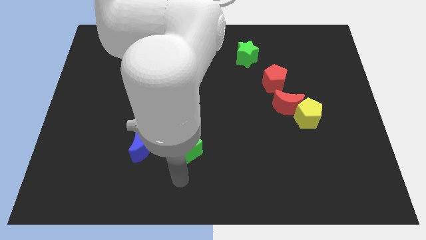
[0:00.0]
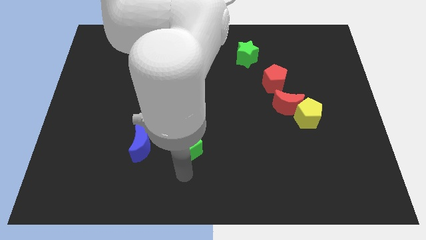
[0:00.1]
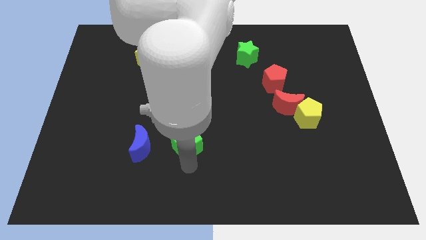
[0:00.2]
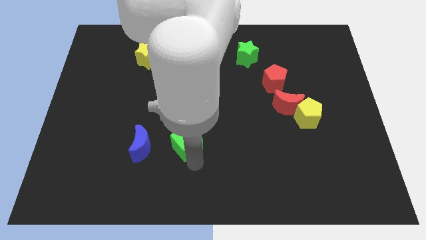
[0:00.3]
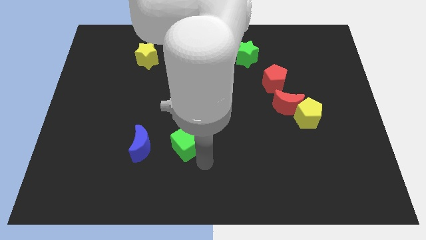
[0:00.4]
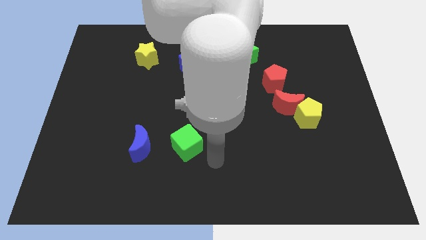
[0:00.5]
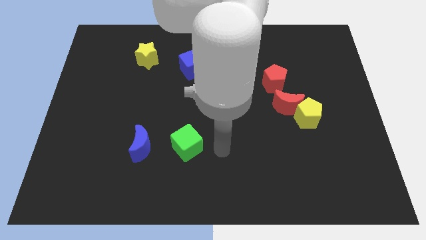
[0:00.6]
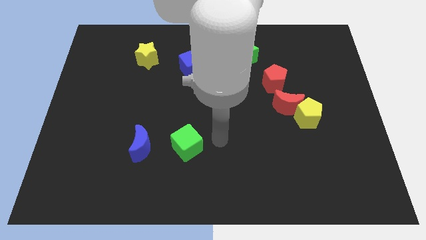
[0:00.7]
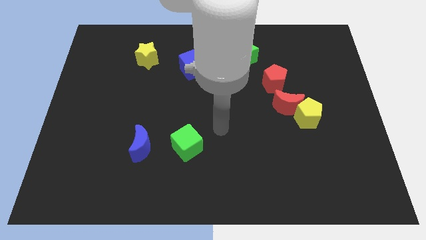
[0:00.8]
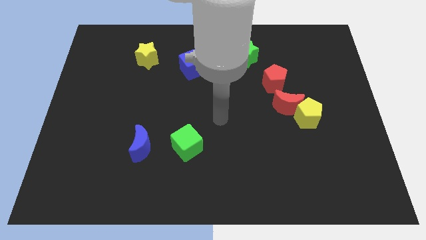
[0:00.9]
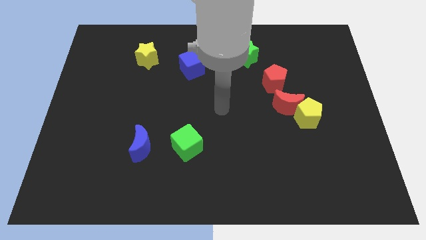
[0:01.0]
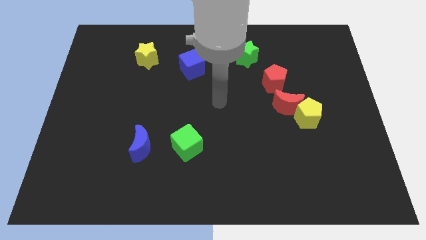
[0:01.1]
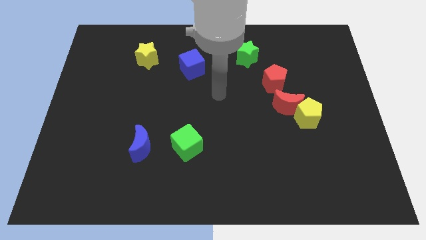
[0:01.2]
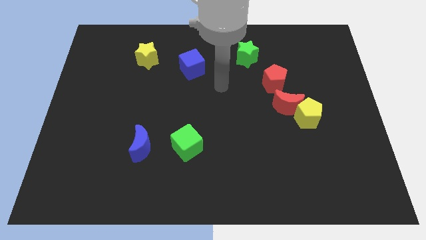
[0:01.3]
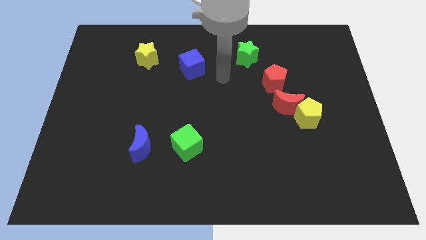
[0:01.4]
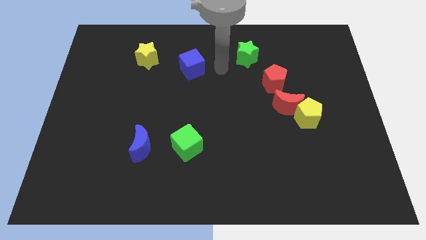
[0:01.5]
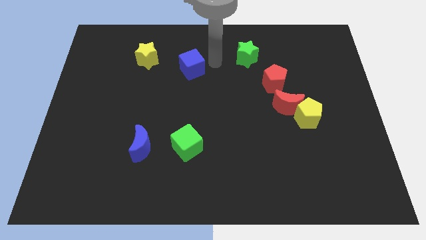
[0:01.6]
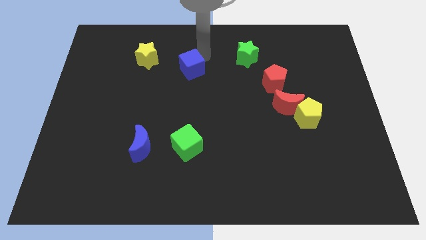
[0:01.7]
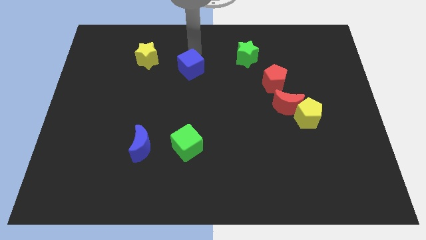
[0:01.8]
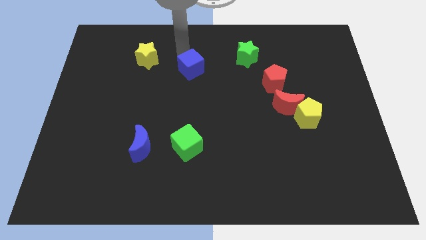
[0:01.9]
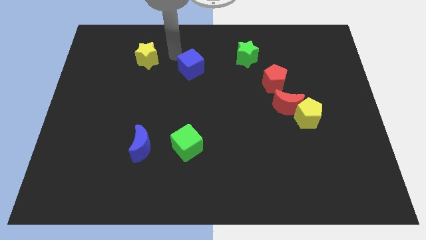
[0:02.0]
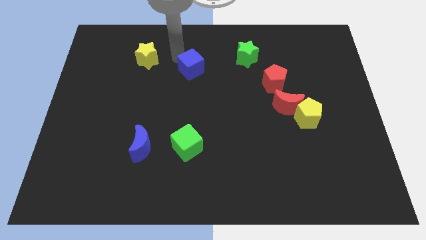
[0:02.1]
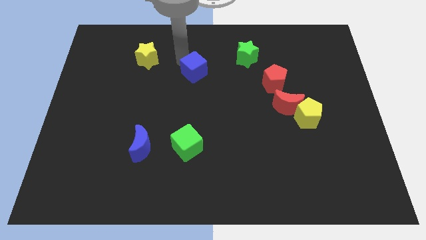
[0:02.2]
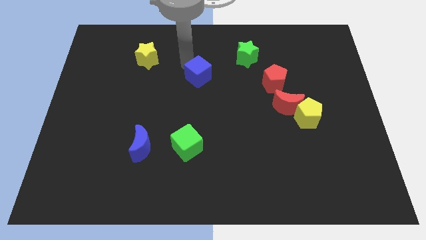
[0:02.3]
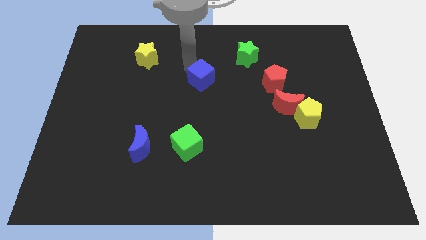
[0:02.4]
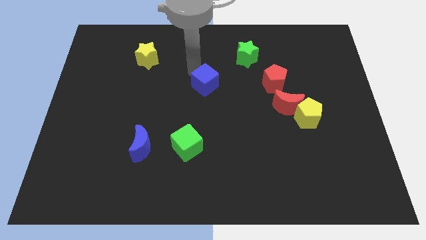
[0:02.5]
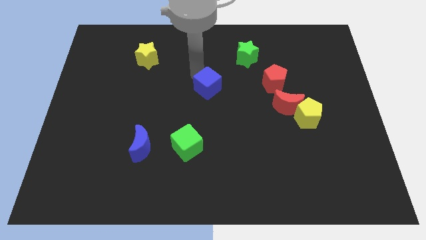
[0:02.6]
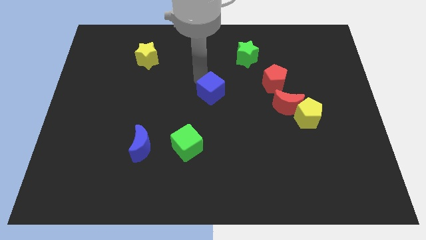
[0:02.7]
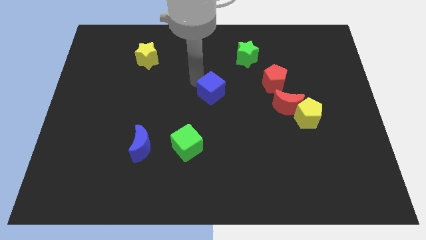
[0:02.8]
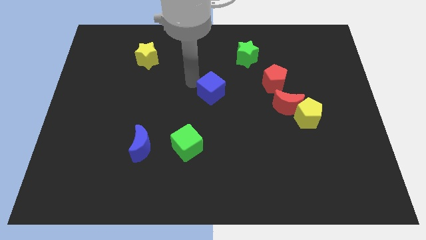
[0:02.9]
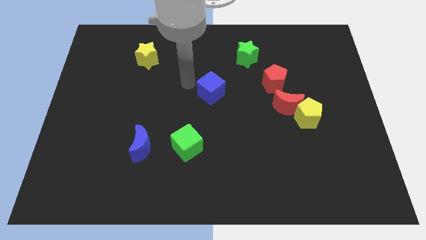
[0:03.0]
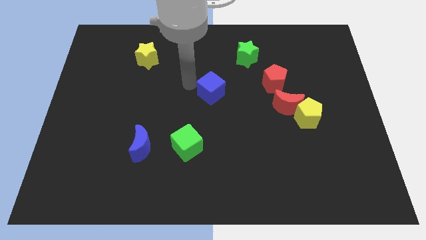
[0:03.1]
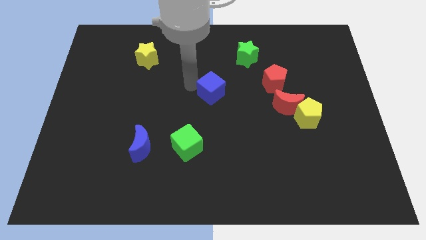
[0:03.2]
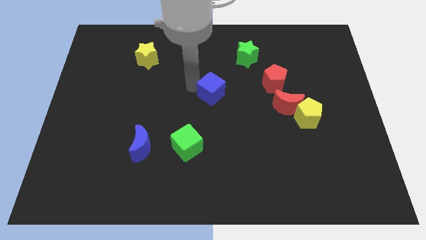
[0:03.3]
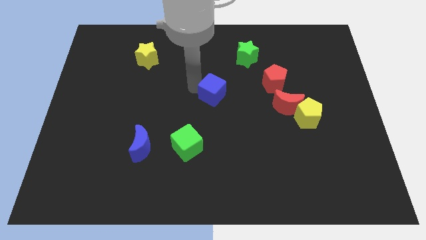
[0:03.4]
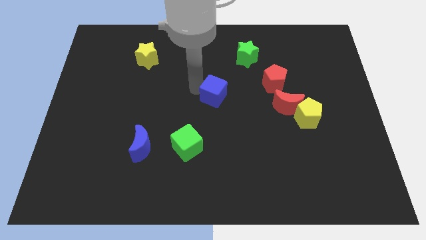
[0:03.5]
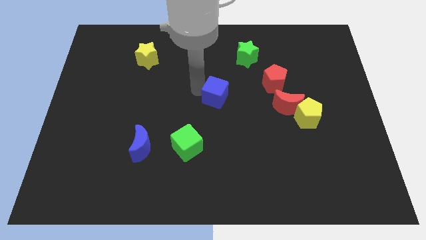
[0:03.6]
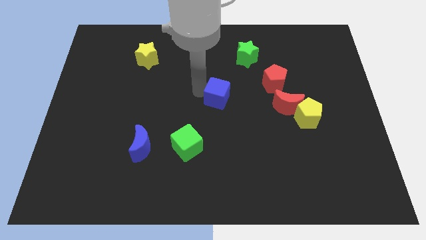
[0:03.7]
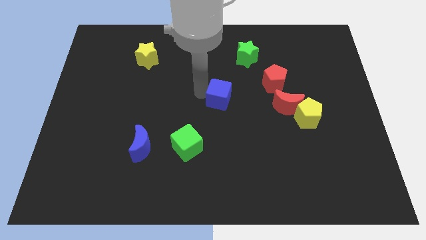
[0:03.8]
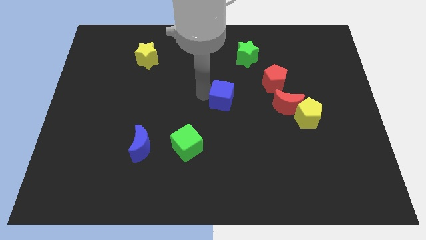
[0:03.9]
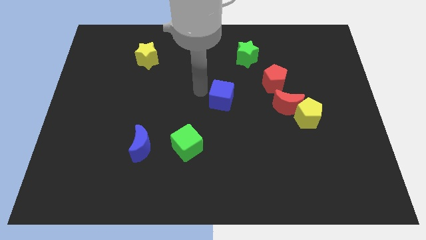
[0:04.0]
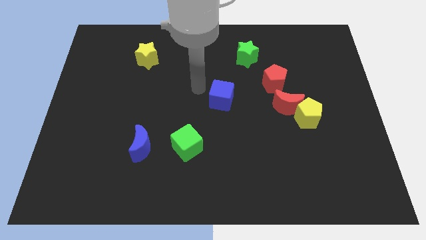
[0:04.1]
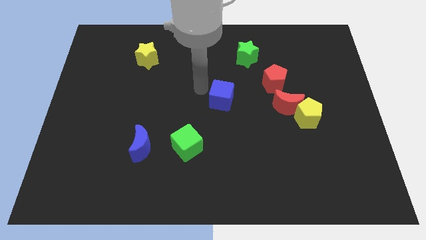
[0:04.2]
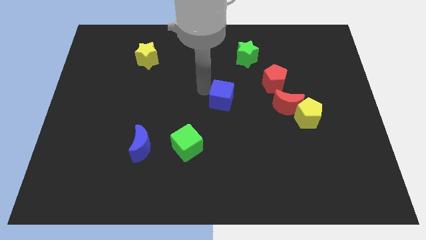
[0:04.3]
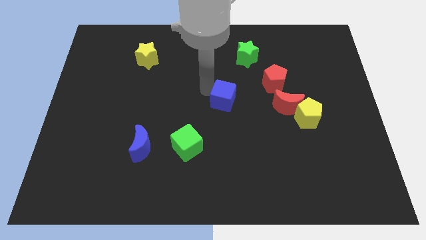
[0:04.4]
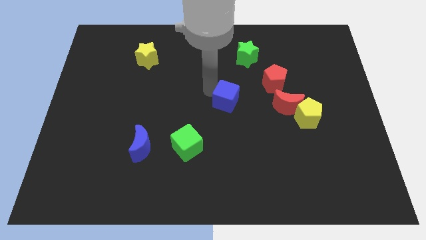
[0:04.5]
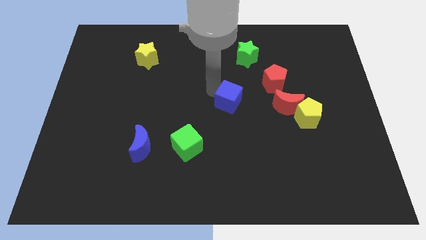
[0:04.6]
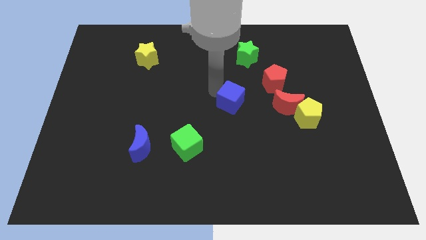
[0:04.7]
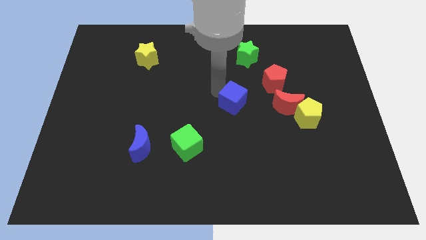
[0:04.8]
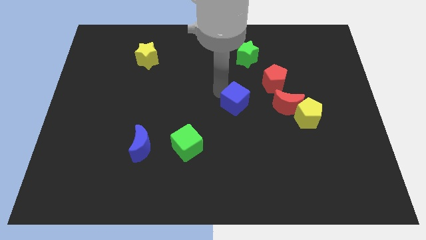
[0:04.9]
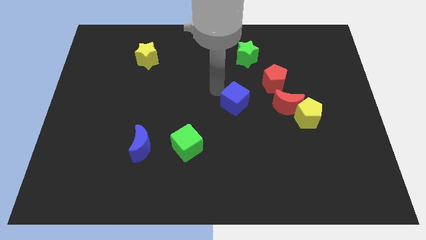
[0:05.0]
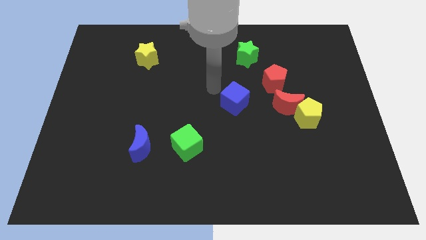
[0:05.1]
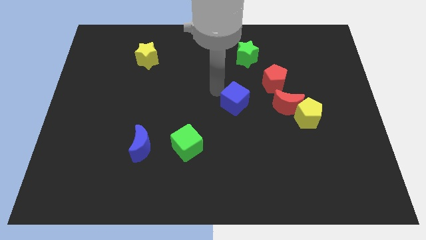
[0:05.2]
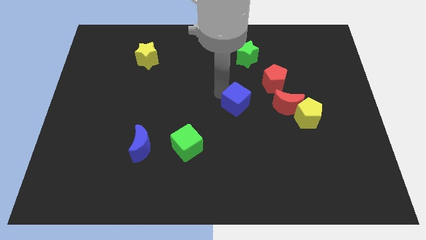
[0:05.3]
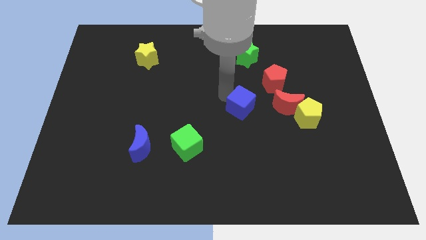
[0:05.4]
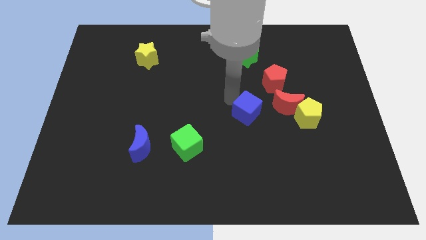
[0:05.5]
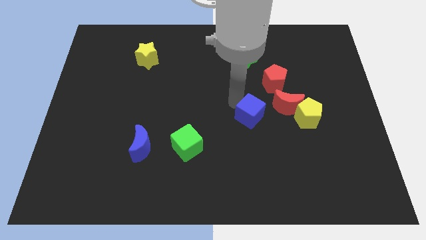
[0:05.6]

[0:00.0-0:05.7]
push the blue cube downwards and to the right diagonally

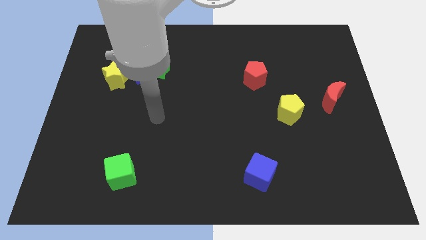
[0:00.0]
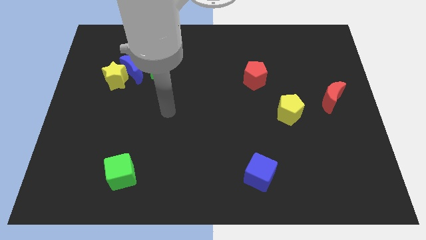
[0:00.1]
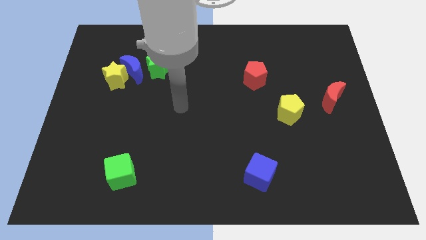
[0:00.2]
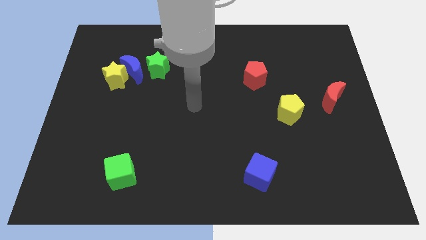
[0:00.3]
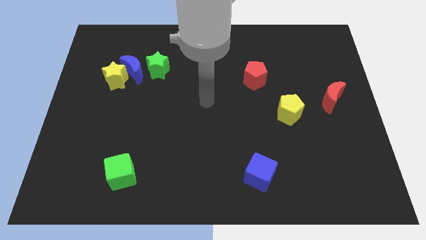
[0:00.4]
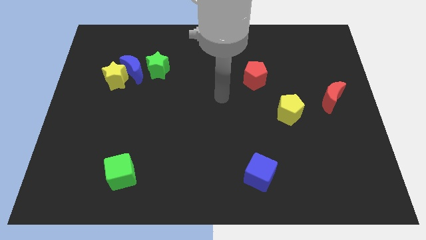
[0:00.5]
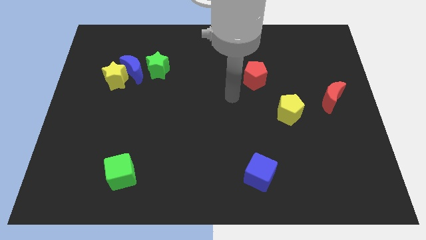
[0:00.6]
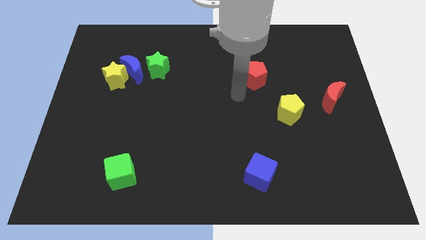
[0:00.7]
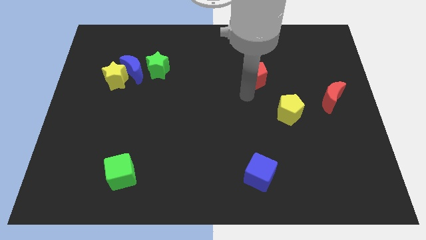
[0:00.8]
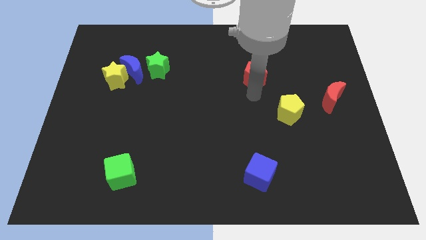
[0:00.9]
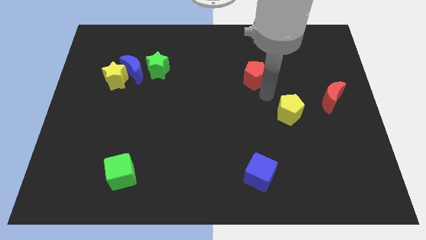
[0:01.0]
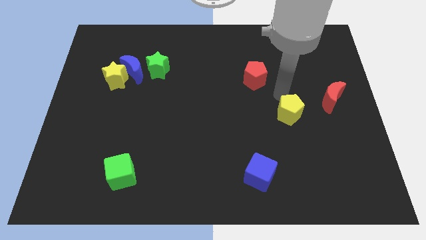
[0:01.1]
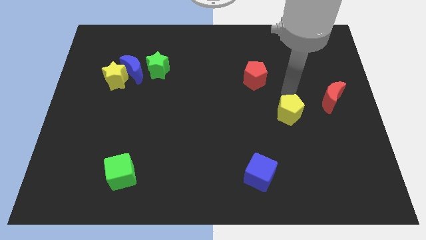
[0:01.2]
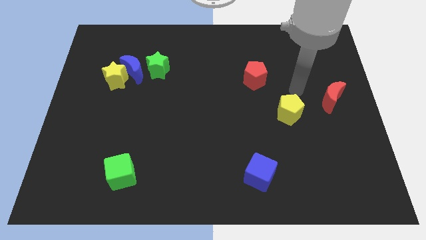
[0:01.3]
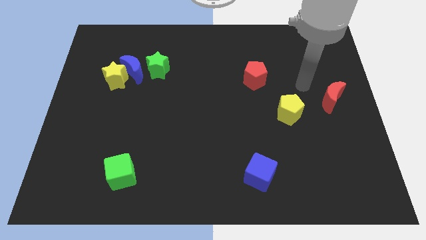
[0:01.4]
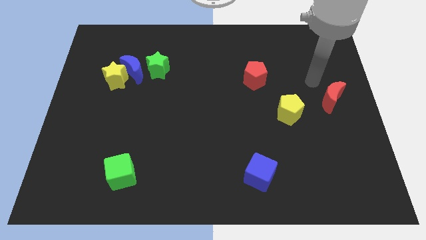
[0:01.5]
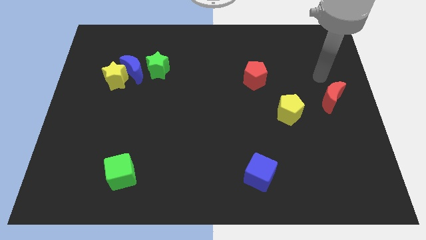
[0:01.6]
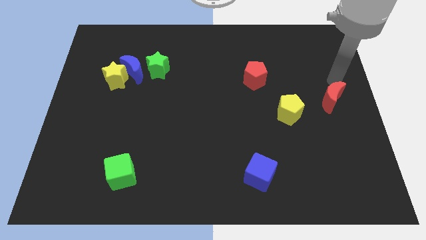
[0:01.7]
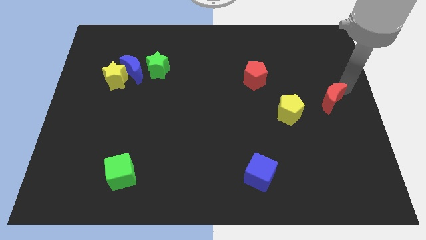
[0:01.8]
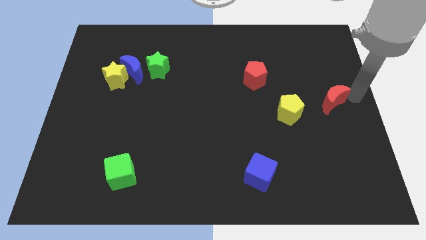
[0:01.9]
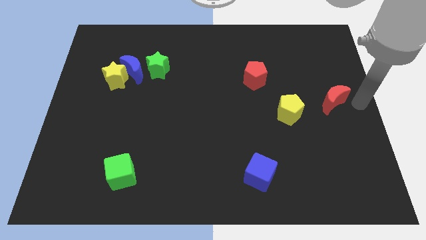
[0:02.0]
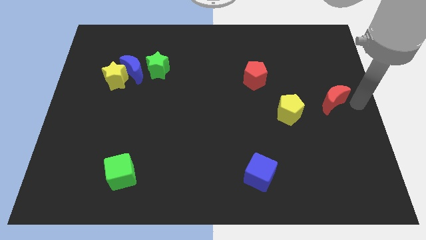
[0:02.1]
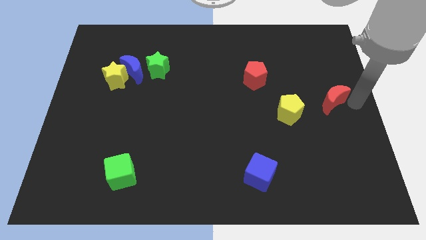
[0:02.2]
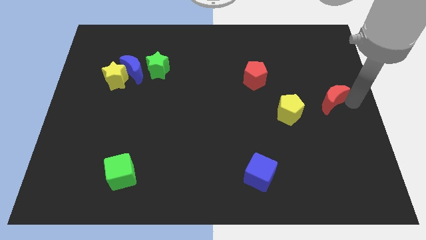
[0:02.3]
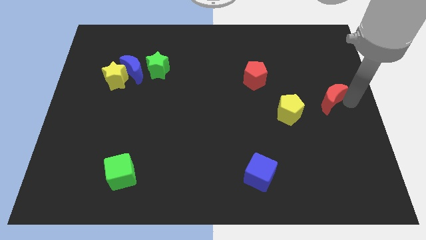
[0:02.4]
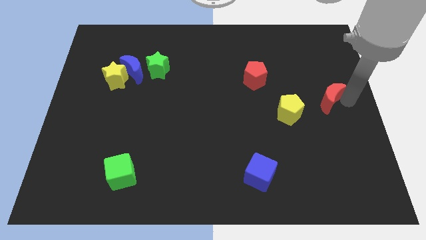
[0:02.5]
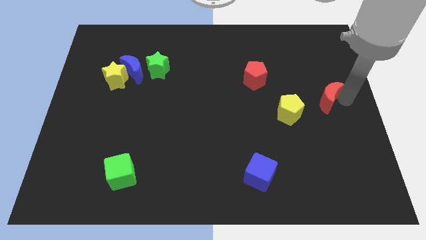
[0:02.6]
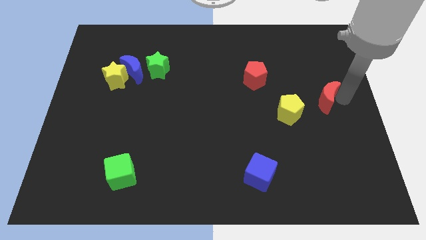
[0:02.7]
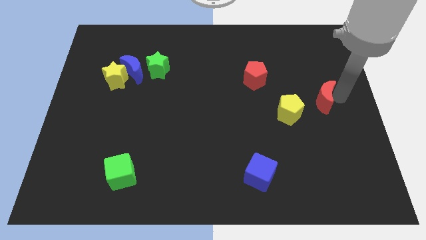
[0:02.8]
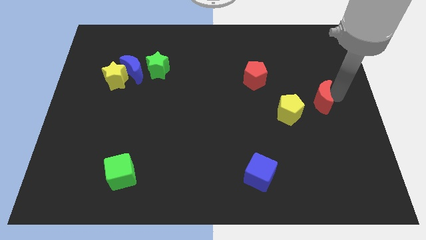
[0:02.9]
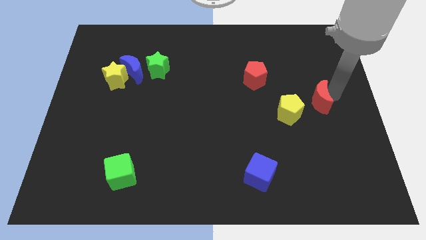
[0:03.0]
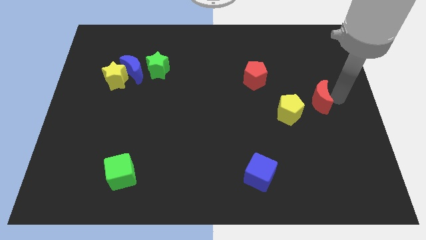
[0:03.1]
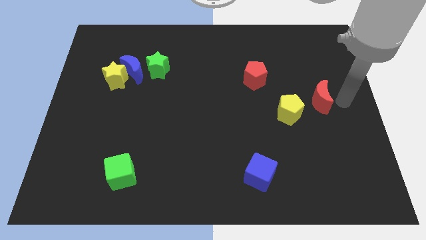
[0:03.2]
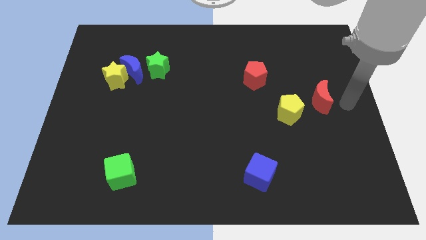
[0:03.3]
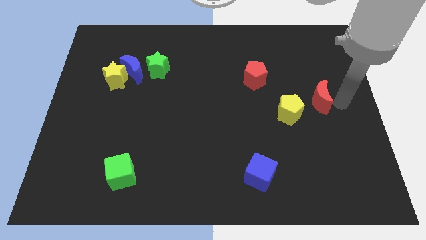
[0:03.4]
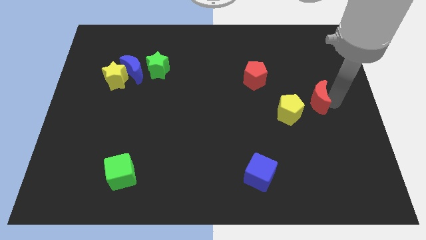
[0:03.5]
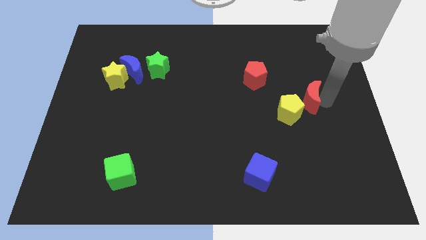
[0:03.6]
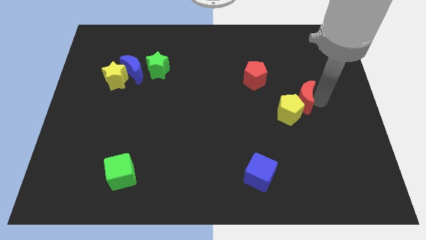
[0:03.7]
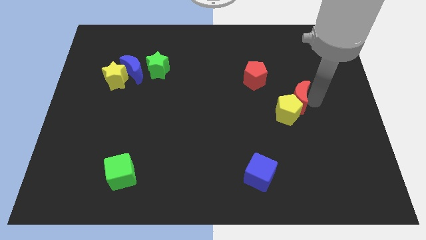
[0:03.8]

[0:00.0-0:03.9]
slightly move the red moon left
